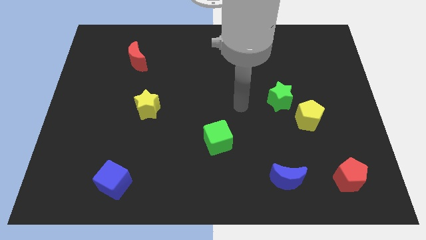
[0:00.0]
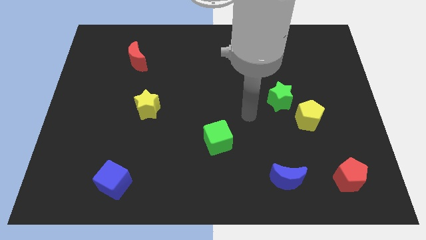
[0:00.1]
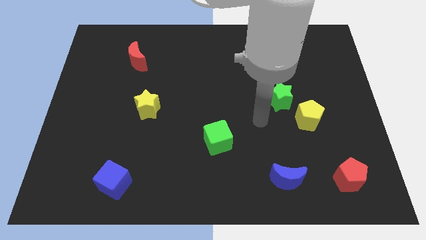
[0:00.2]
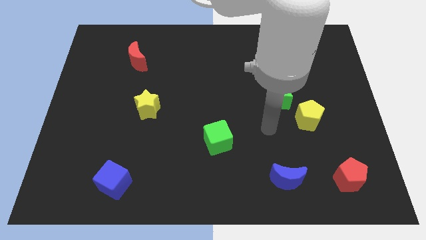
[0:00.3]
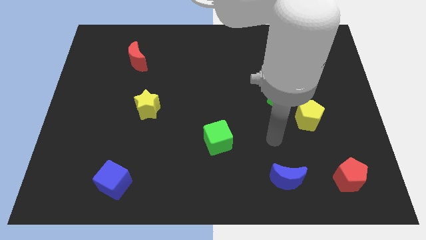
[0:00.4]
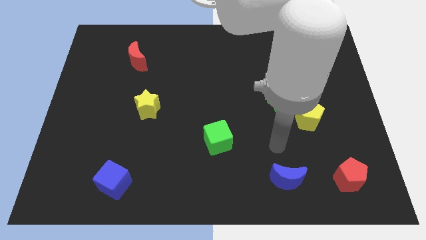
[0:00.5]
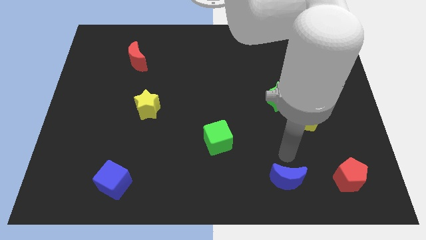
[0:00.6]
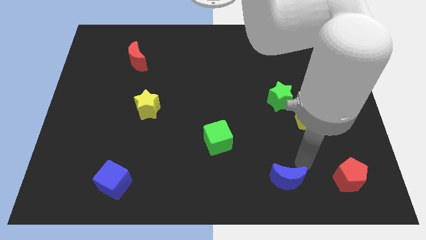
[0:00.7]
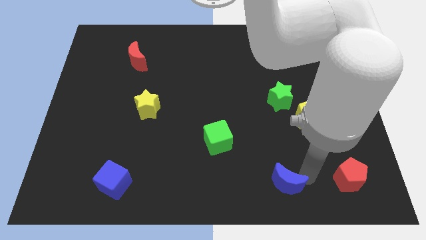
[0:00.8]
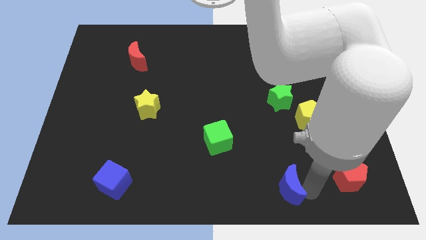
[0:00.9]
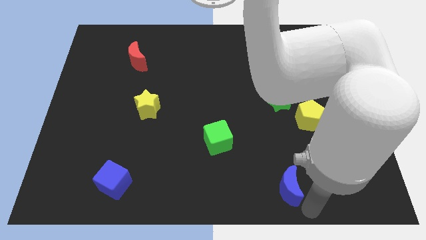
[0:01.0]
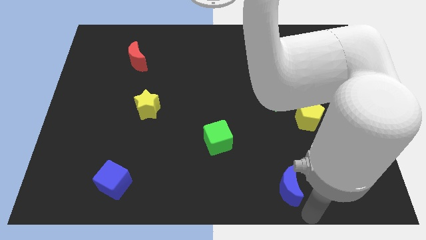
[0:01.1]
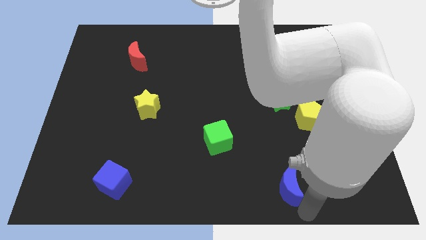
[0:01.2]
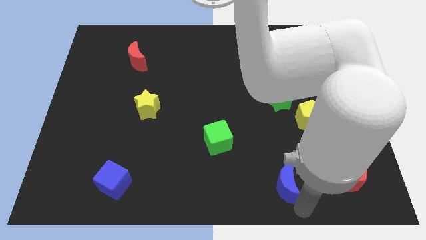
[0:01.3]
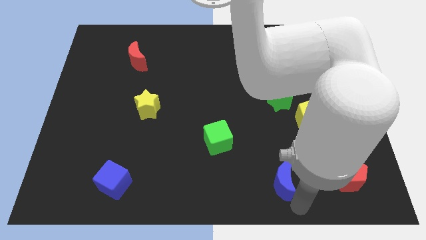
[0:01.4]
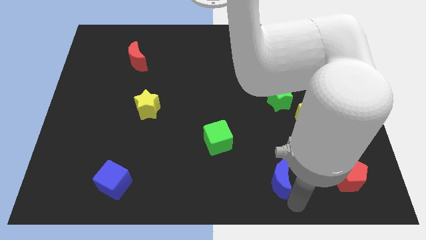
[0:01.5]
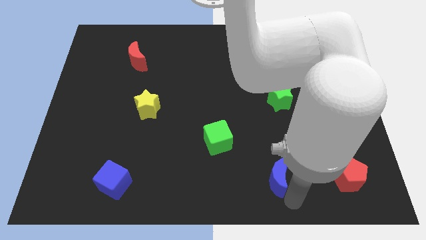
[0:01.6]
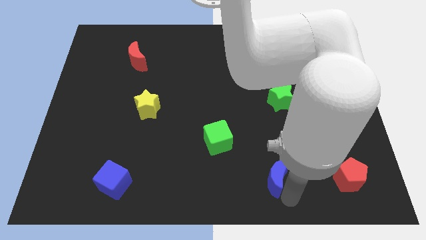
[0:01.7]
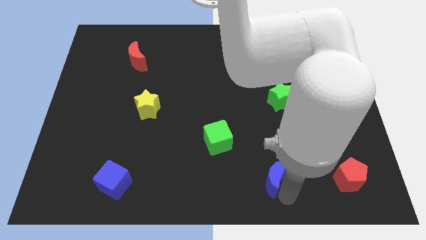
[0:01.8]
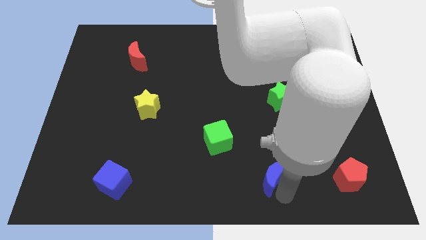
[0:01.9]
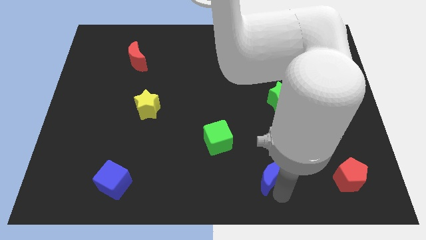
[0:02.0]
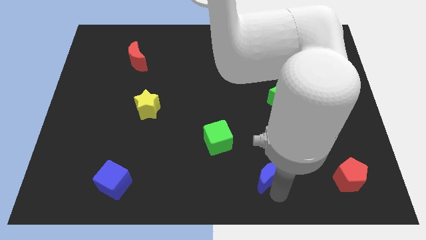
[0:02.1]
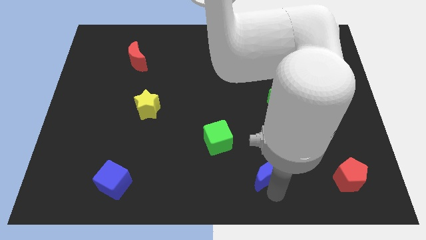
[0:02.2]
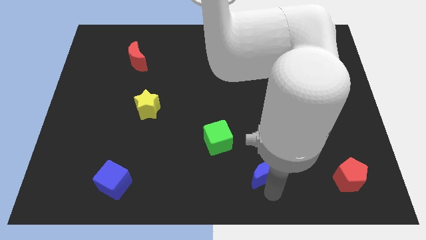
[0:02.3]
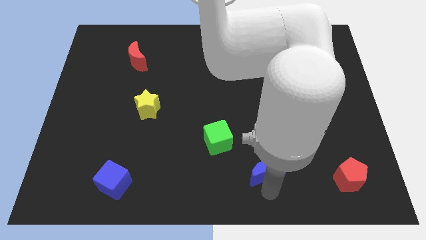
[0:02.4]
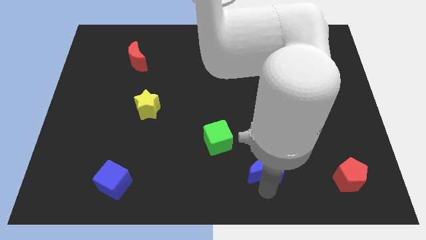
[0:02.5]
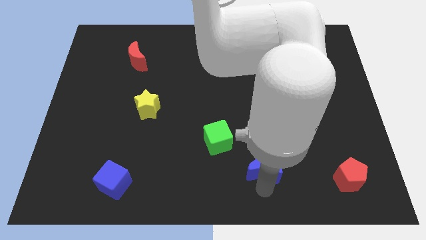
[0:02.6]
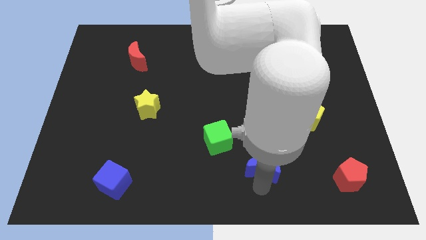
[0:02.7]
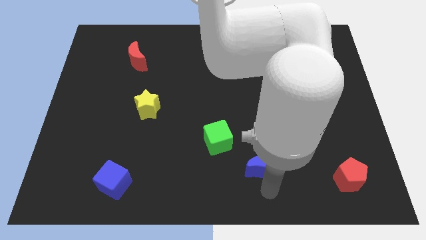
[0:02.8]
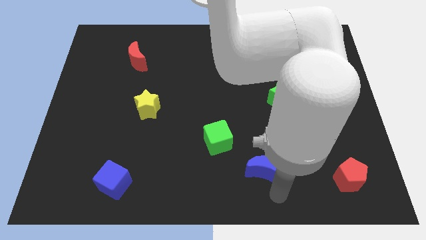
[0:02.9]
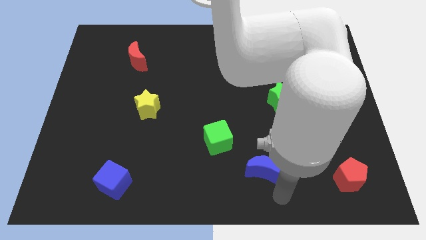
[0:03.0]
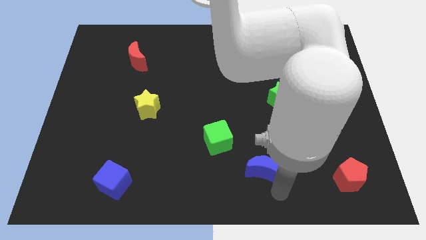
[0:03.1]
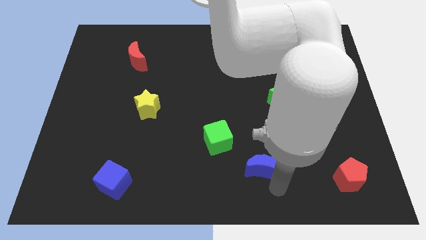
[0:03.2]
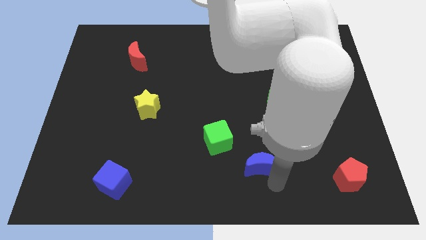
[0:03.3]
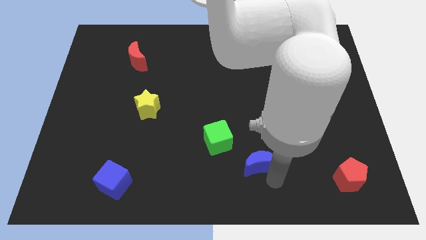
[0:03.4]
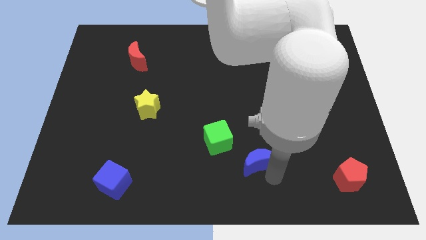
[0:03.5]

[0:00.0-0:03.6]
slightly move the blue moon up and then to the left

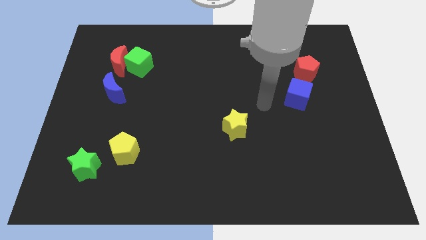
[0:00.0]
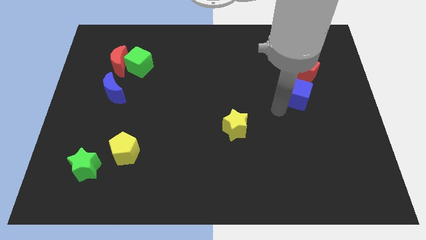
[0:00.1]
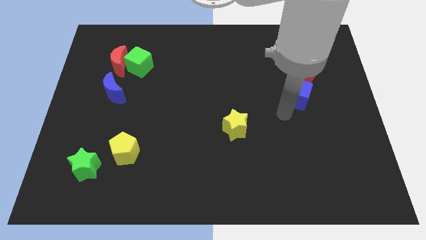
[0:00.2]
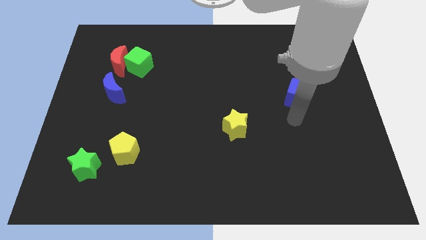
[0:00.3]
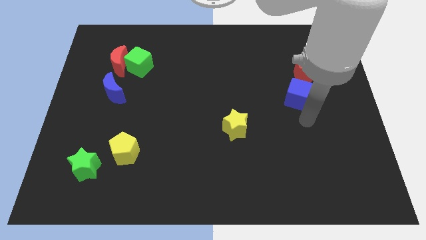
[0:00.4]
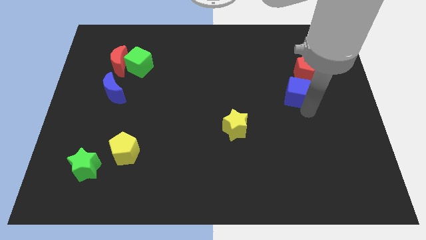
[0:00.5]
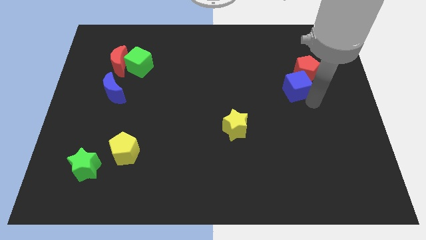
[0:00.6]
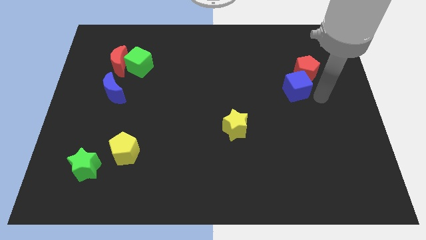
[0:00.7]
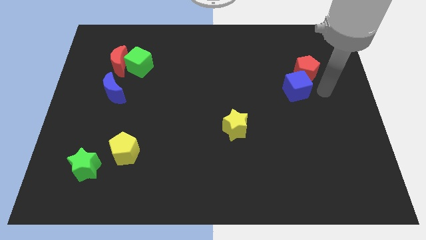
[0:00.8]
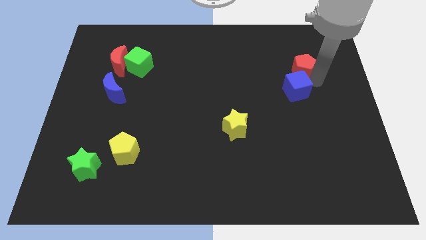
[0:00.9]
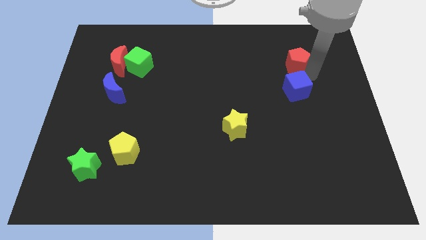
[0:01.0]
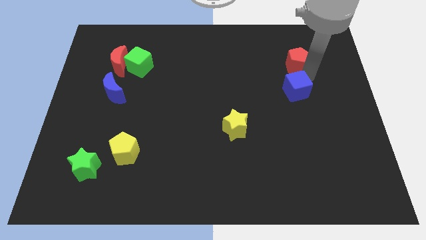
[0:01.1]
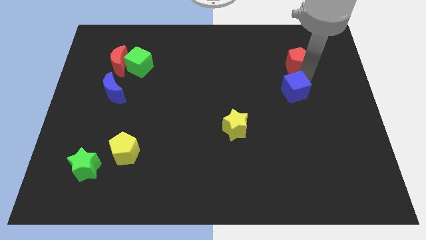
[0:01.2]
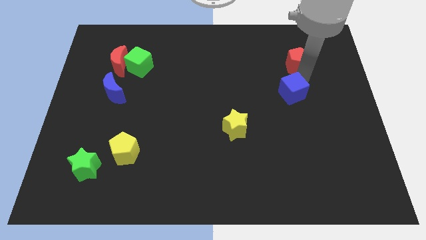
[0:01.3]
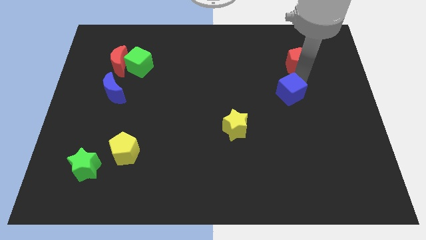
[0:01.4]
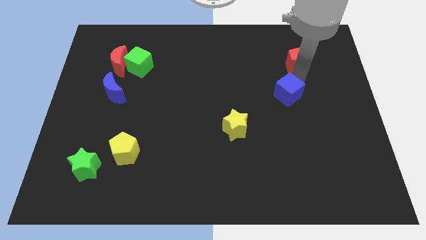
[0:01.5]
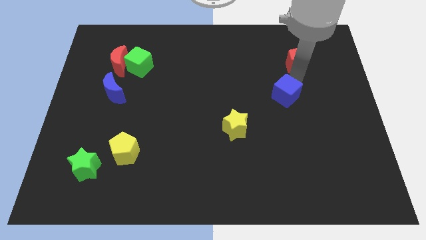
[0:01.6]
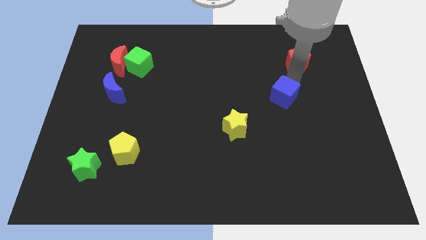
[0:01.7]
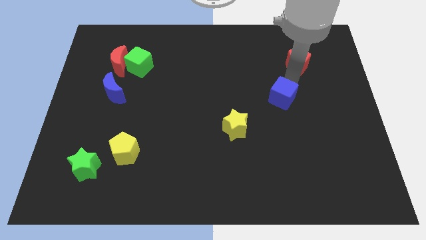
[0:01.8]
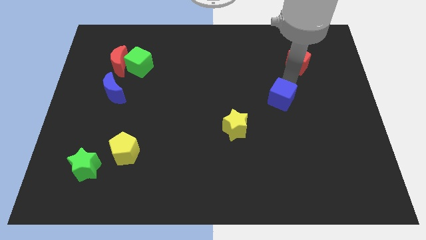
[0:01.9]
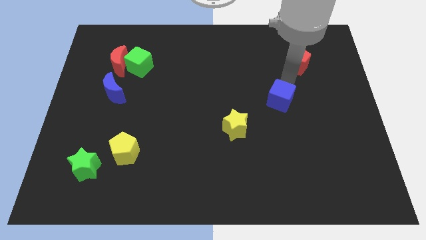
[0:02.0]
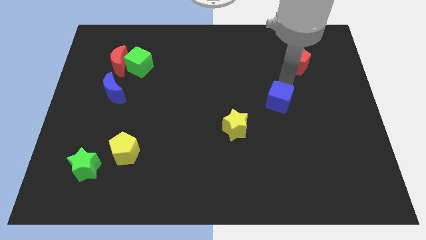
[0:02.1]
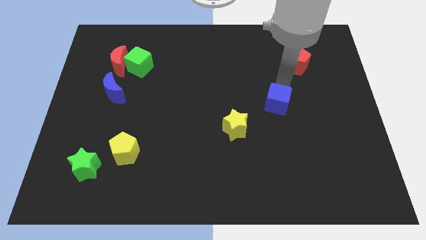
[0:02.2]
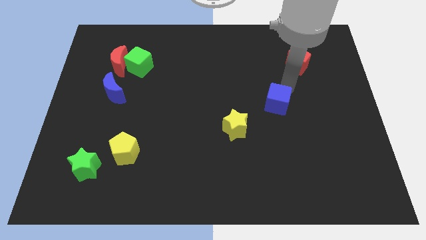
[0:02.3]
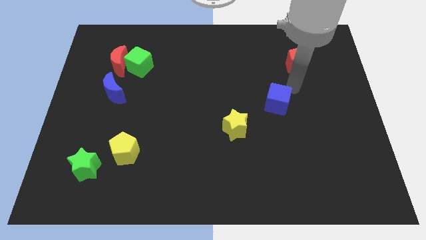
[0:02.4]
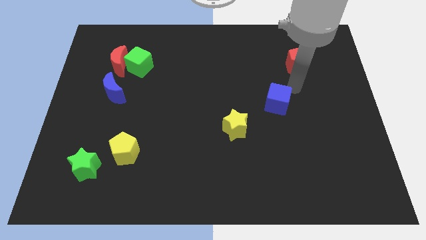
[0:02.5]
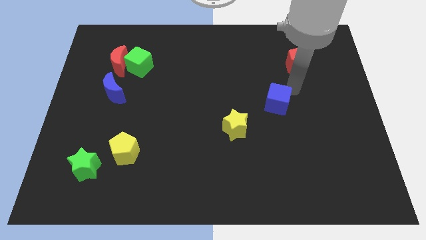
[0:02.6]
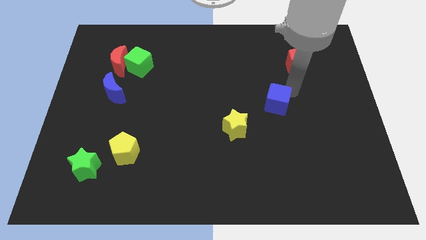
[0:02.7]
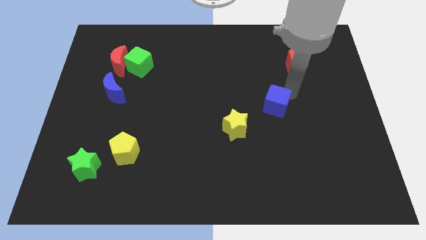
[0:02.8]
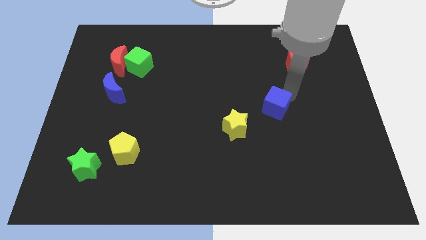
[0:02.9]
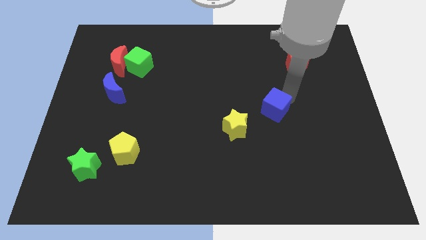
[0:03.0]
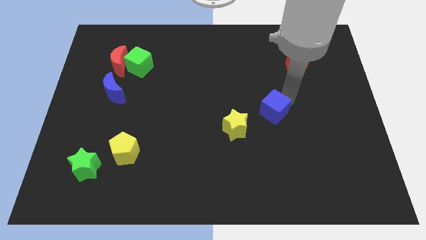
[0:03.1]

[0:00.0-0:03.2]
slightly move the blue cube downwards and then left

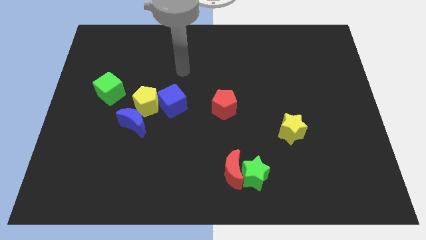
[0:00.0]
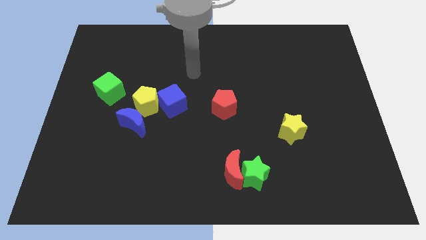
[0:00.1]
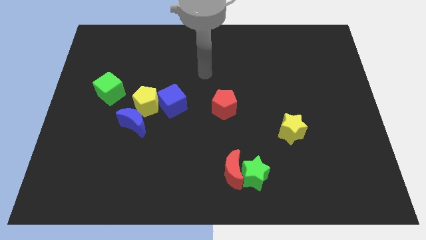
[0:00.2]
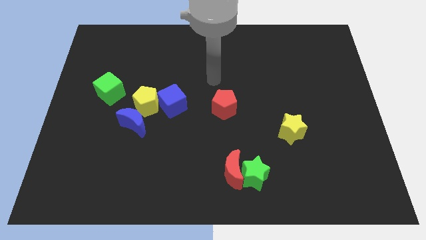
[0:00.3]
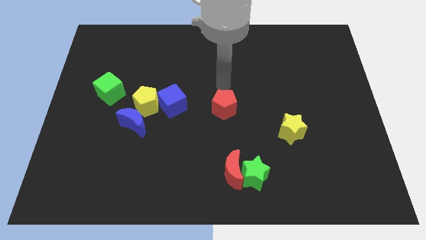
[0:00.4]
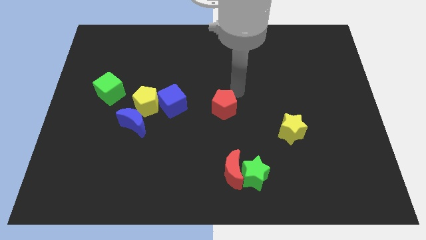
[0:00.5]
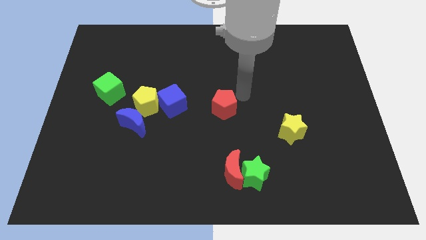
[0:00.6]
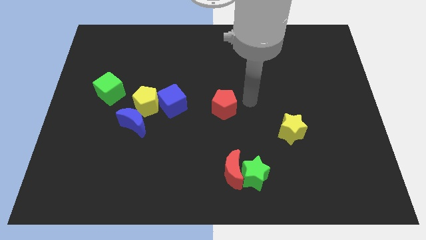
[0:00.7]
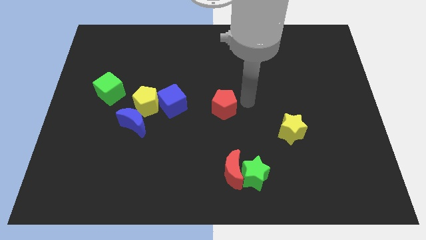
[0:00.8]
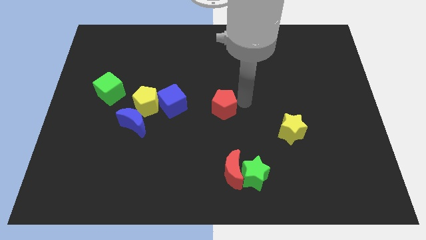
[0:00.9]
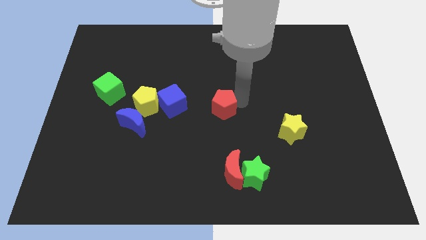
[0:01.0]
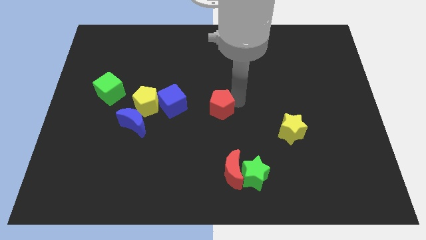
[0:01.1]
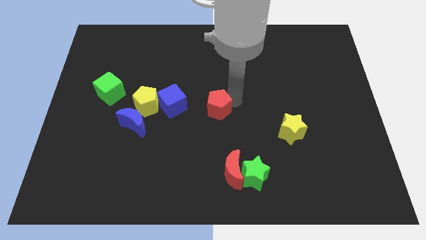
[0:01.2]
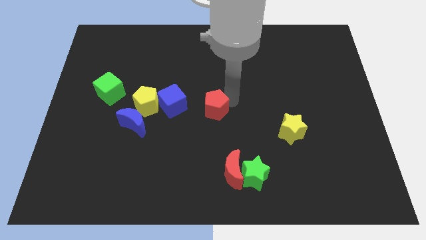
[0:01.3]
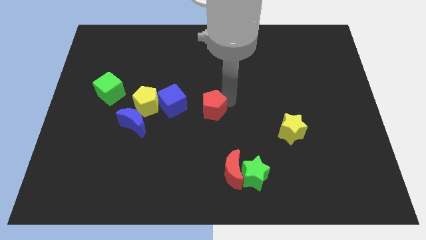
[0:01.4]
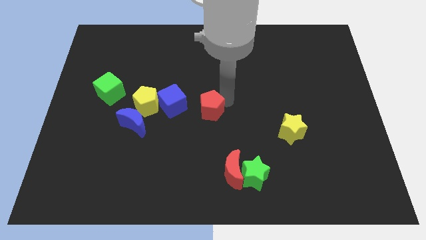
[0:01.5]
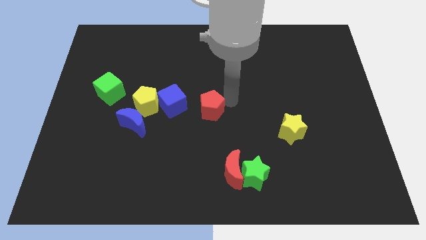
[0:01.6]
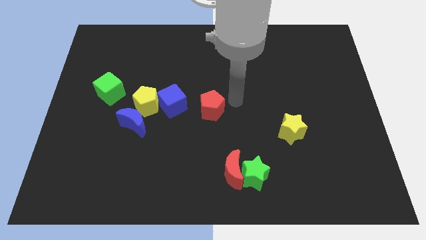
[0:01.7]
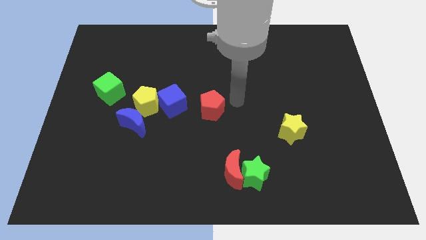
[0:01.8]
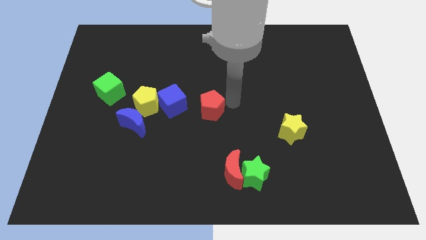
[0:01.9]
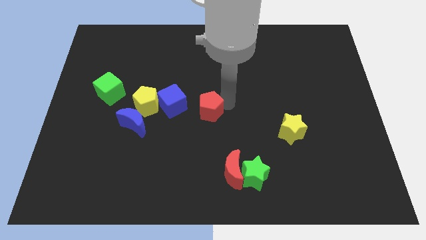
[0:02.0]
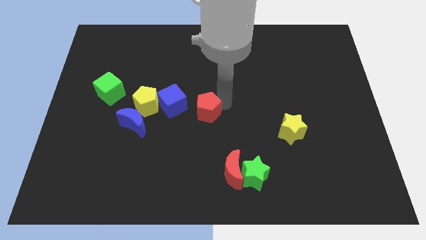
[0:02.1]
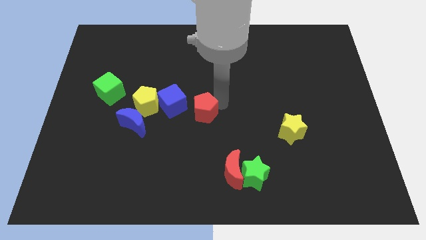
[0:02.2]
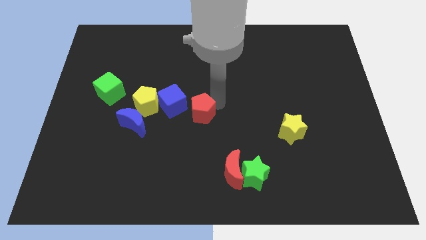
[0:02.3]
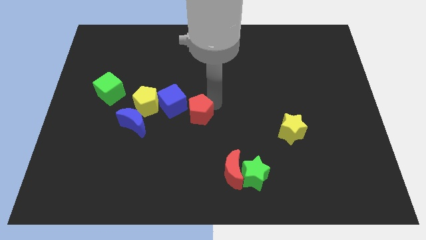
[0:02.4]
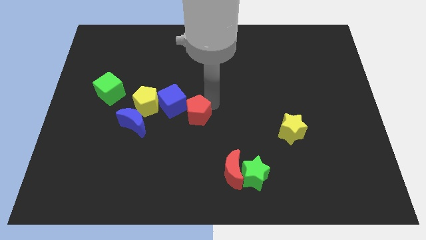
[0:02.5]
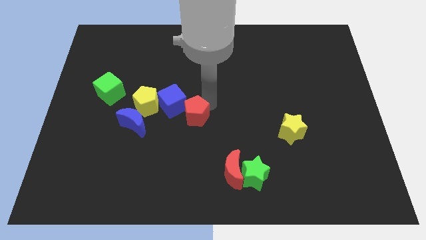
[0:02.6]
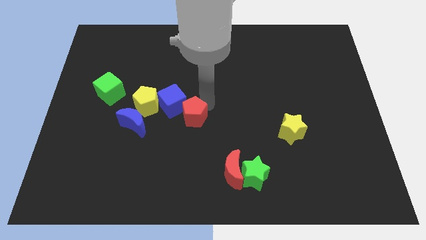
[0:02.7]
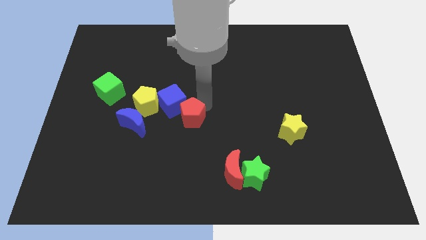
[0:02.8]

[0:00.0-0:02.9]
slightly push the red pentagon diagonally down and to the left
